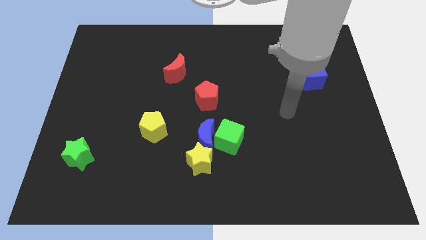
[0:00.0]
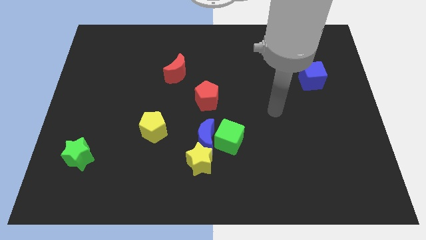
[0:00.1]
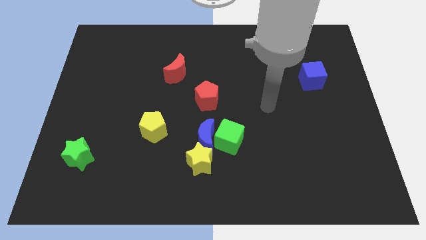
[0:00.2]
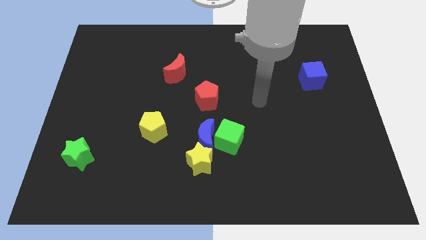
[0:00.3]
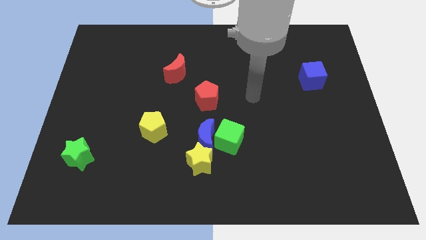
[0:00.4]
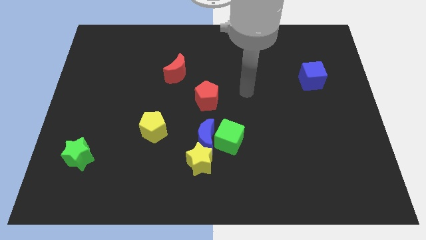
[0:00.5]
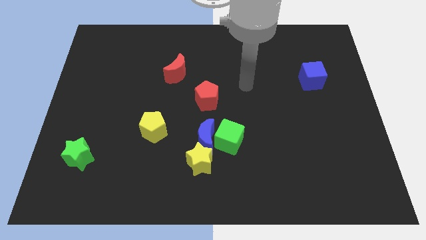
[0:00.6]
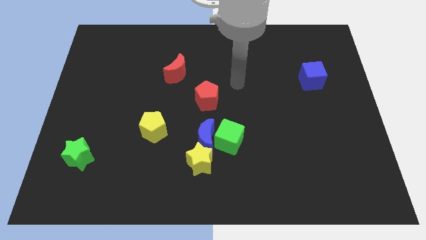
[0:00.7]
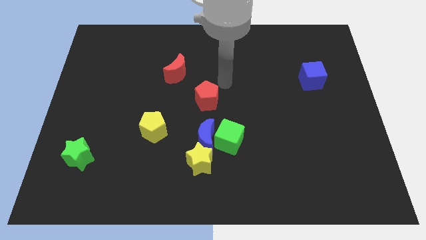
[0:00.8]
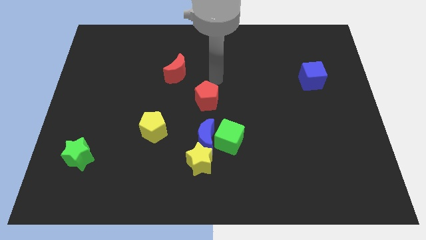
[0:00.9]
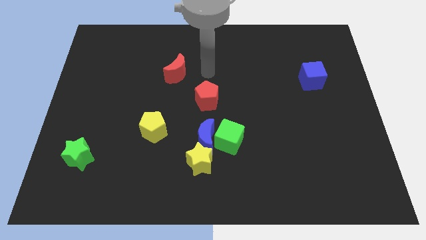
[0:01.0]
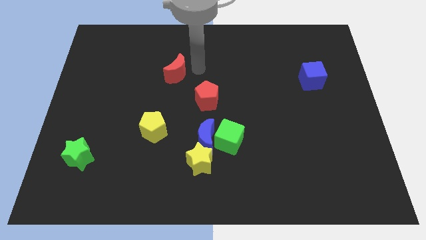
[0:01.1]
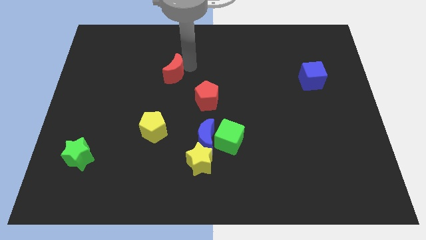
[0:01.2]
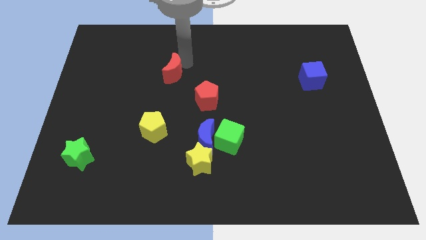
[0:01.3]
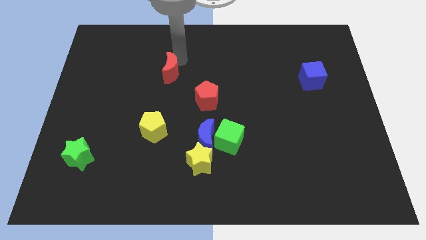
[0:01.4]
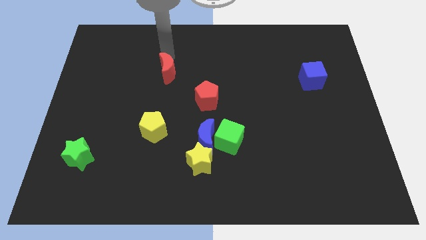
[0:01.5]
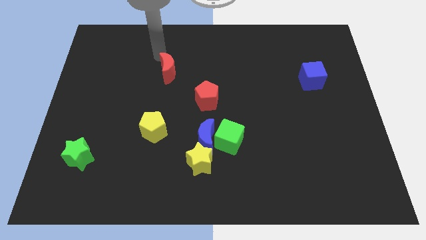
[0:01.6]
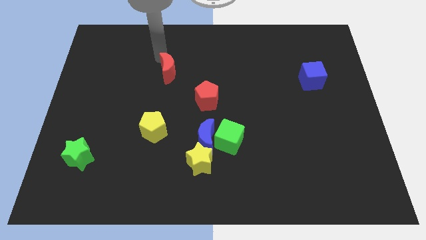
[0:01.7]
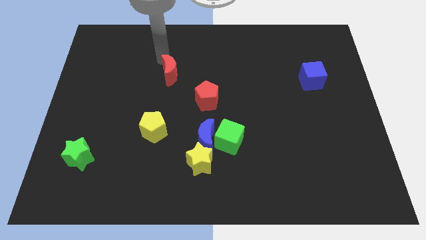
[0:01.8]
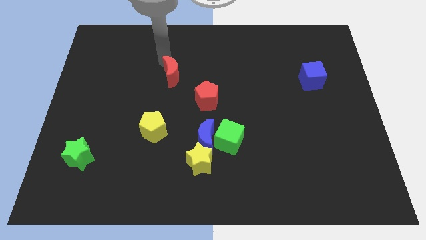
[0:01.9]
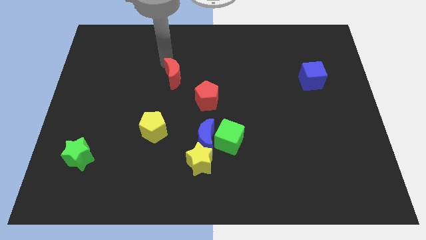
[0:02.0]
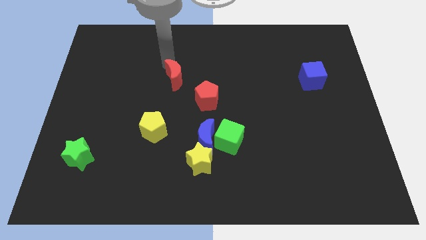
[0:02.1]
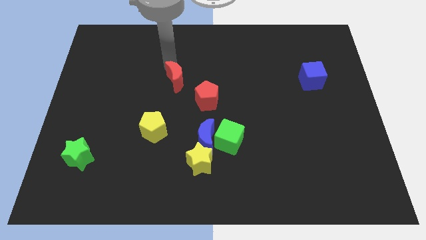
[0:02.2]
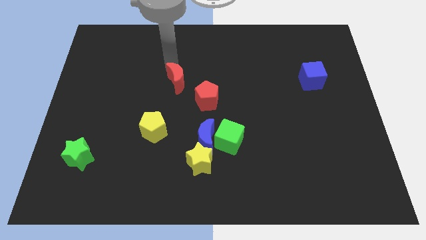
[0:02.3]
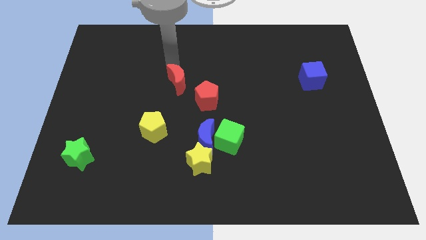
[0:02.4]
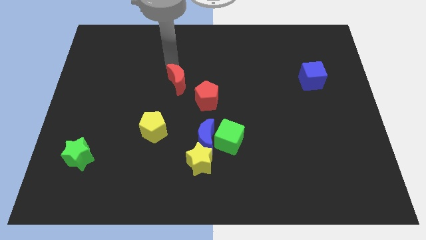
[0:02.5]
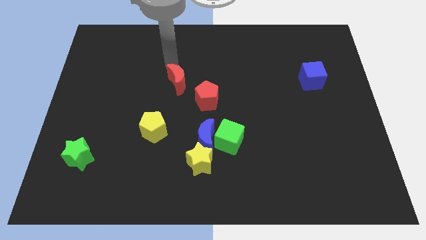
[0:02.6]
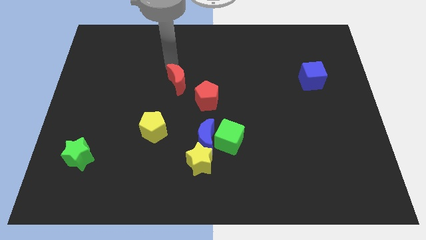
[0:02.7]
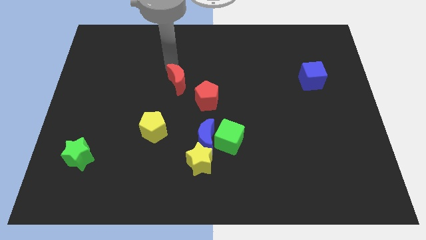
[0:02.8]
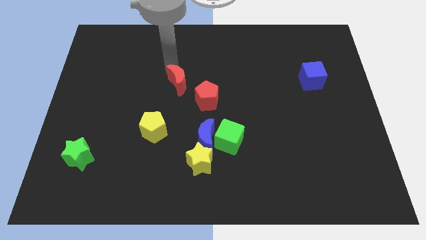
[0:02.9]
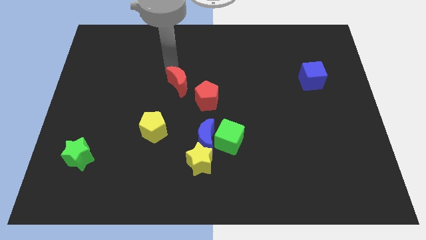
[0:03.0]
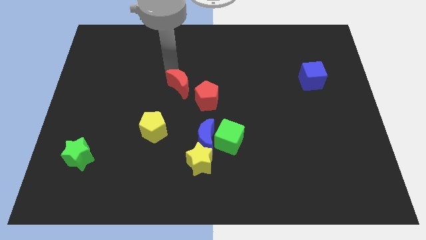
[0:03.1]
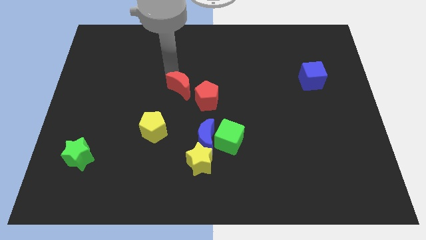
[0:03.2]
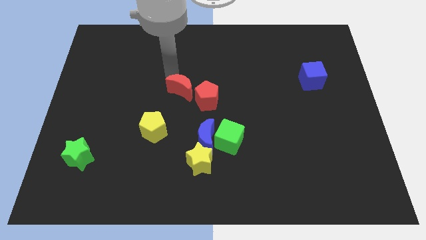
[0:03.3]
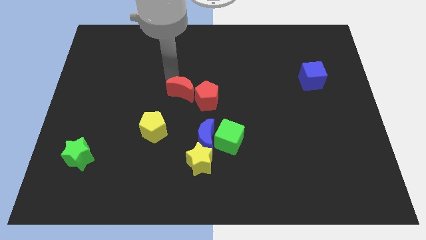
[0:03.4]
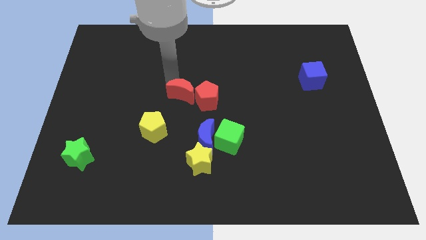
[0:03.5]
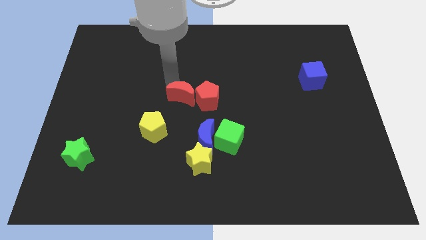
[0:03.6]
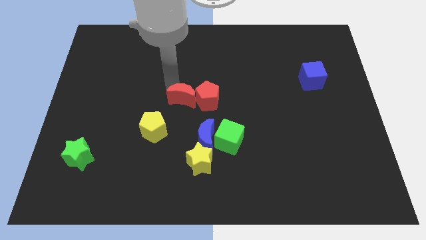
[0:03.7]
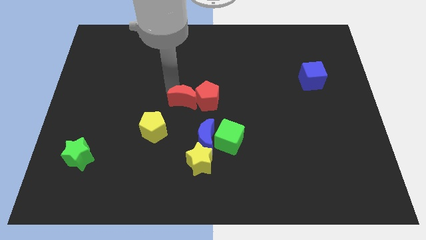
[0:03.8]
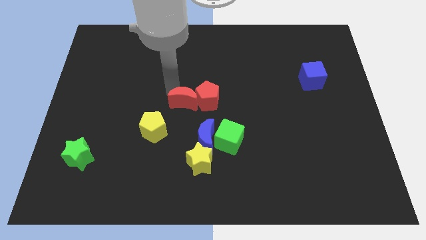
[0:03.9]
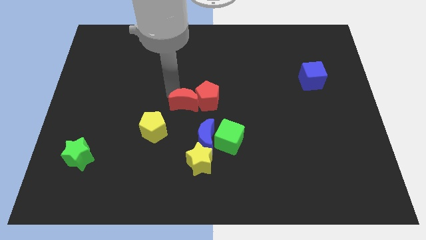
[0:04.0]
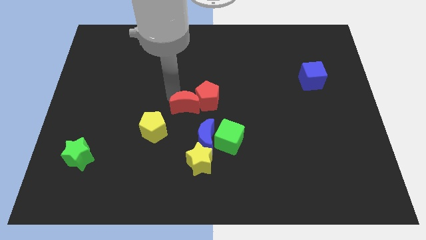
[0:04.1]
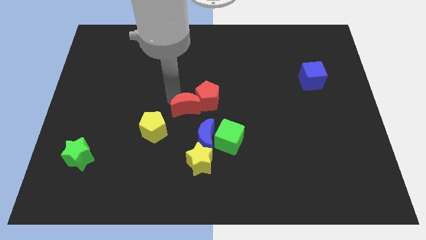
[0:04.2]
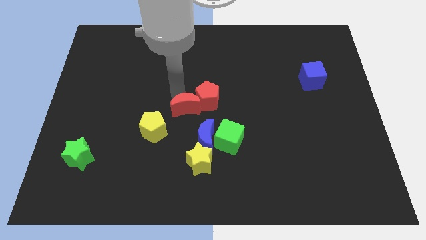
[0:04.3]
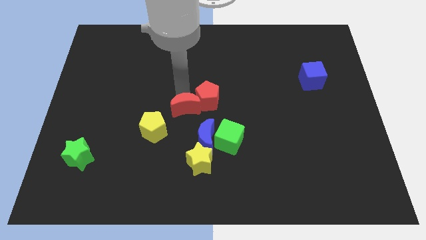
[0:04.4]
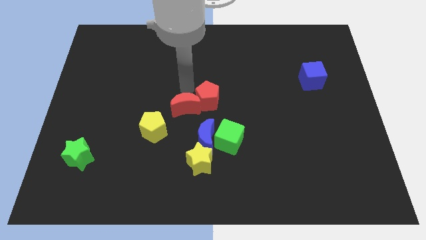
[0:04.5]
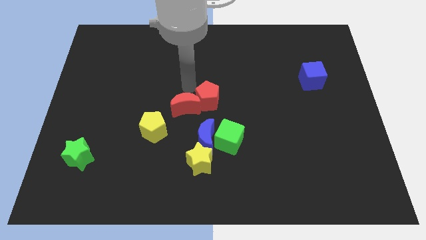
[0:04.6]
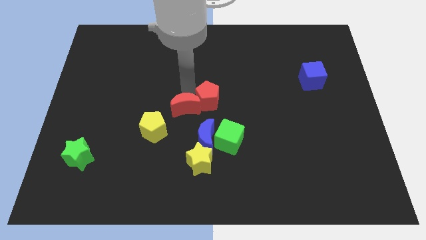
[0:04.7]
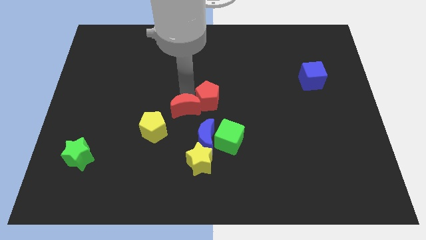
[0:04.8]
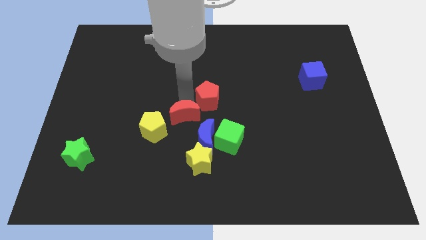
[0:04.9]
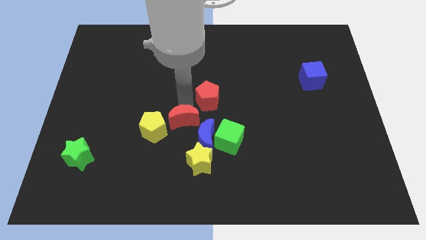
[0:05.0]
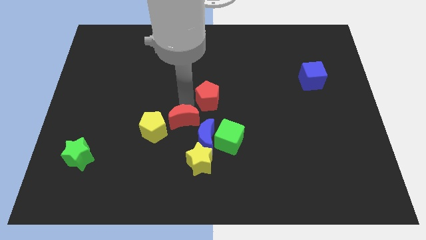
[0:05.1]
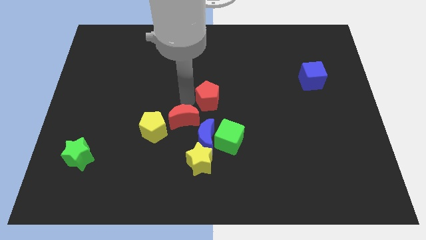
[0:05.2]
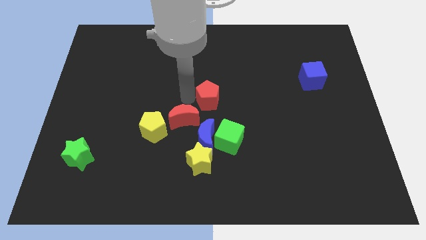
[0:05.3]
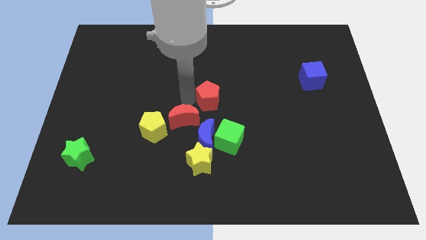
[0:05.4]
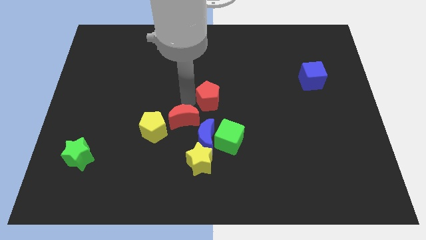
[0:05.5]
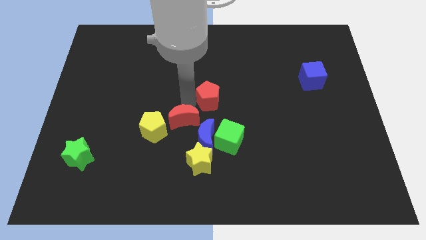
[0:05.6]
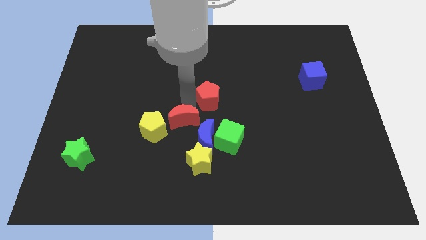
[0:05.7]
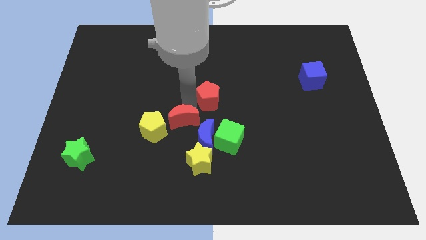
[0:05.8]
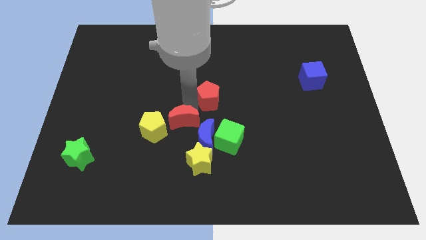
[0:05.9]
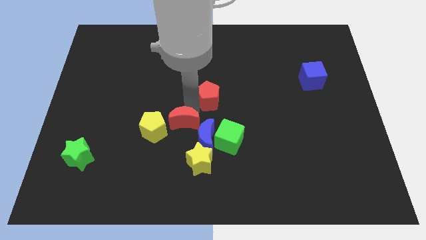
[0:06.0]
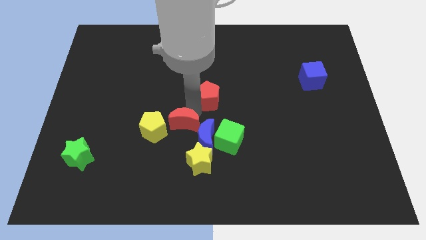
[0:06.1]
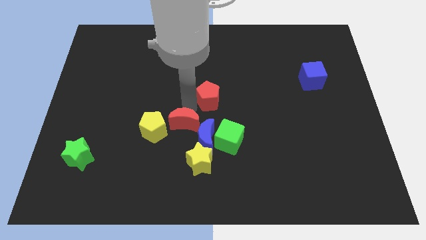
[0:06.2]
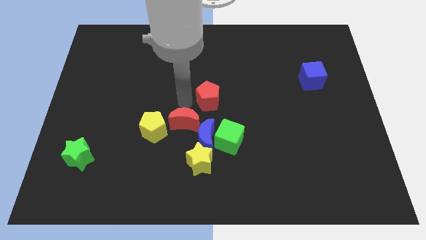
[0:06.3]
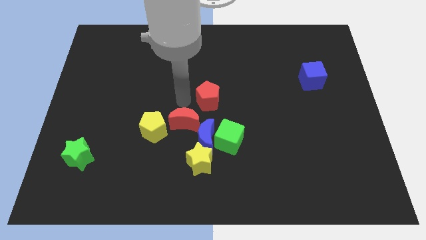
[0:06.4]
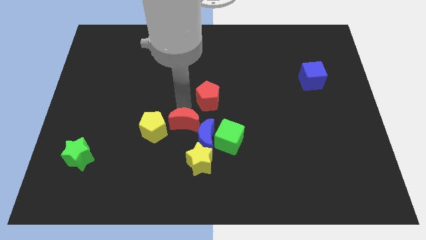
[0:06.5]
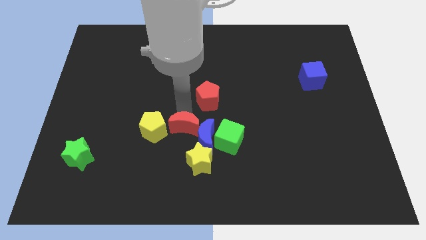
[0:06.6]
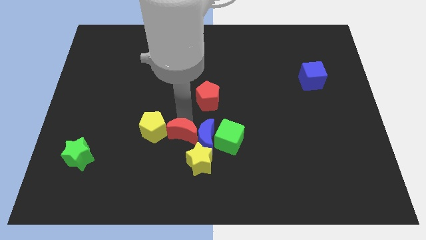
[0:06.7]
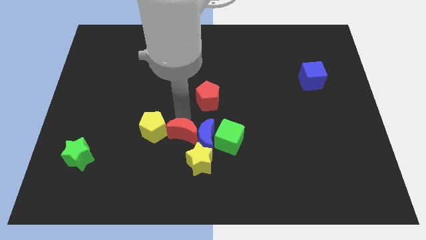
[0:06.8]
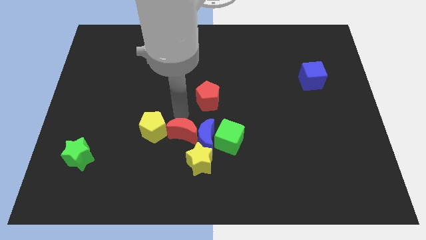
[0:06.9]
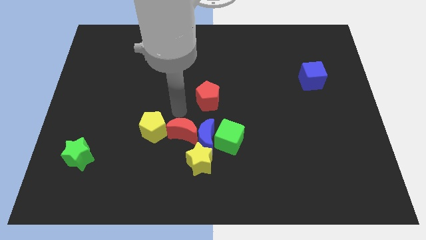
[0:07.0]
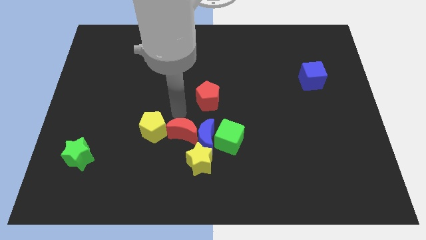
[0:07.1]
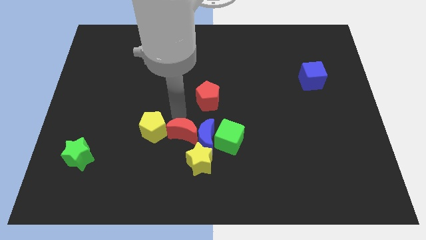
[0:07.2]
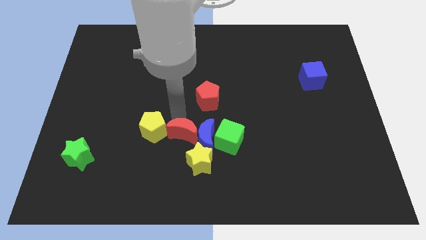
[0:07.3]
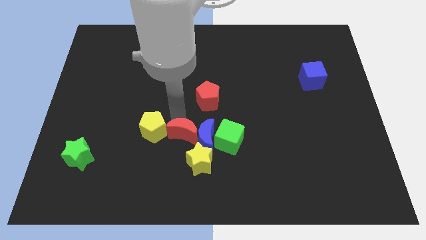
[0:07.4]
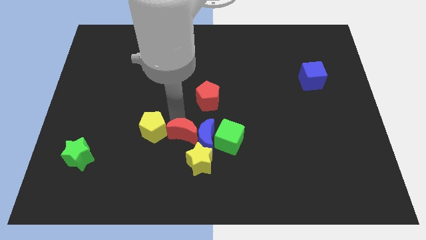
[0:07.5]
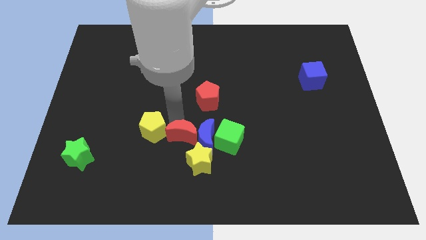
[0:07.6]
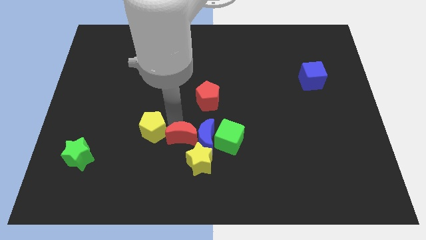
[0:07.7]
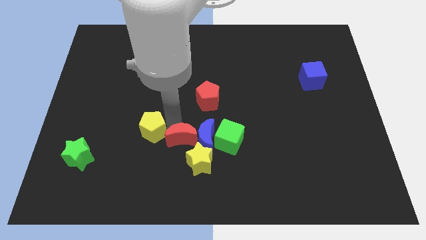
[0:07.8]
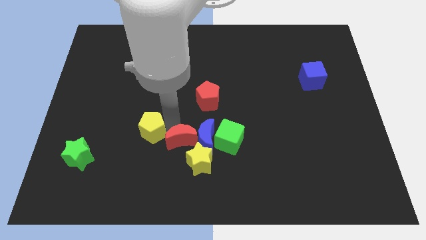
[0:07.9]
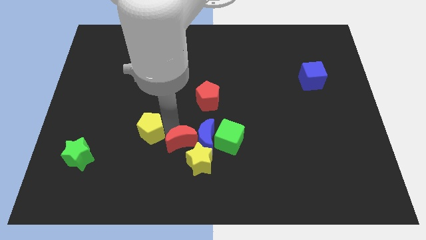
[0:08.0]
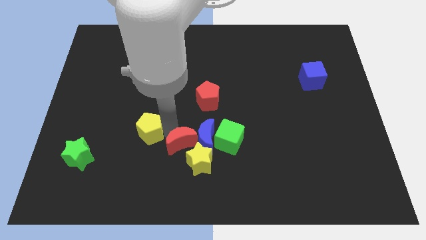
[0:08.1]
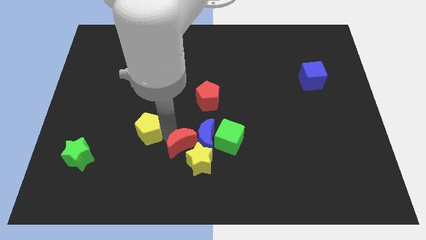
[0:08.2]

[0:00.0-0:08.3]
put the red moon next to the yellow star
